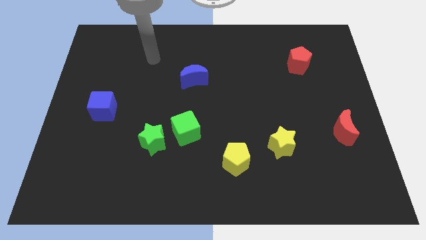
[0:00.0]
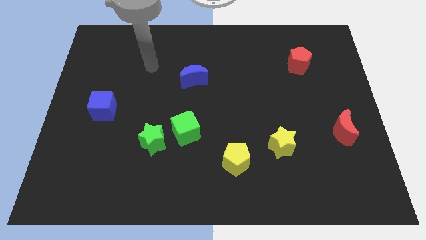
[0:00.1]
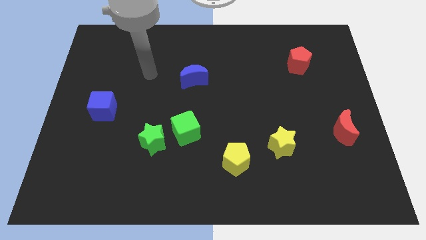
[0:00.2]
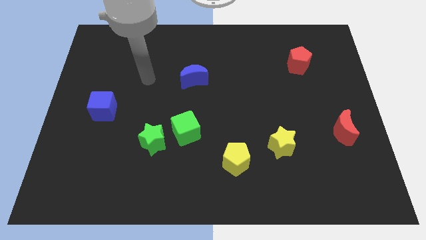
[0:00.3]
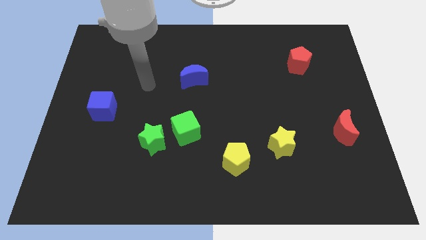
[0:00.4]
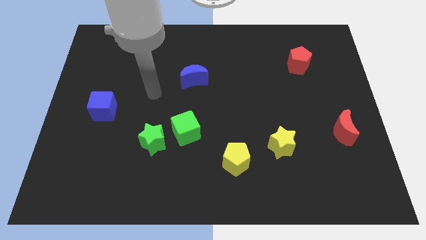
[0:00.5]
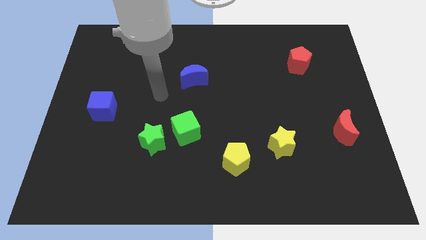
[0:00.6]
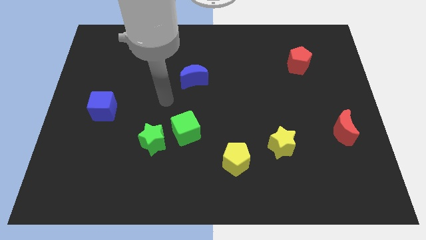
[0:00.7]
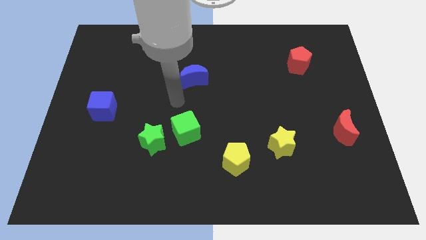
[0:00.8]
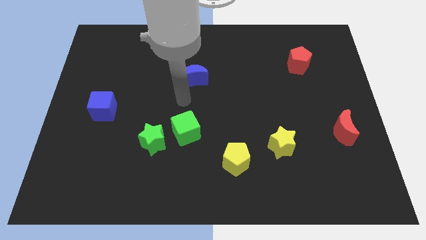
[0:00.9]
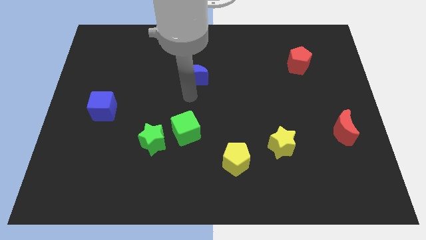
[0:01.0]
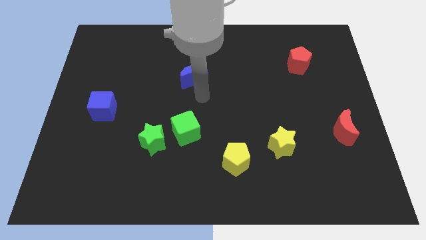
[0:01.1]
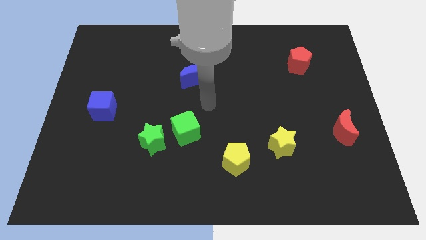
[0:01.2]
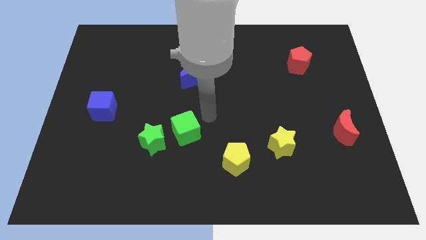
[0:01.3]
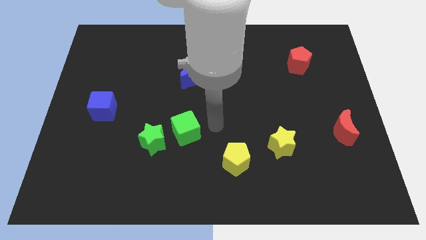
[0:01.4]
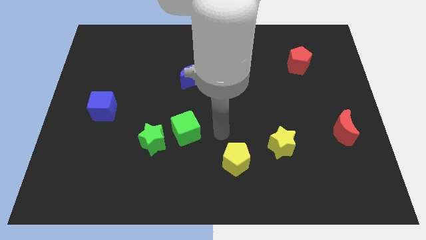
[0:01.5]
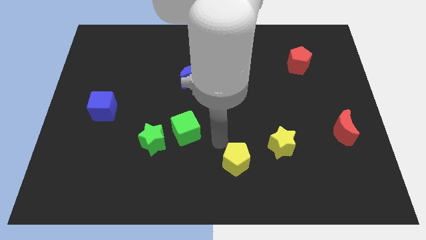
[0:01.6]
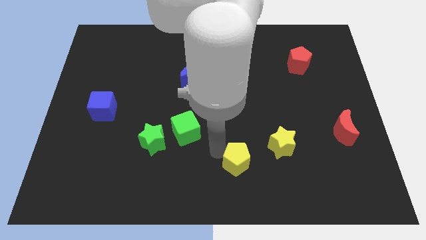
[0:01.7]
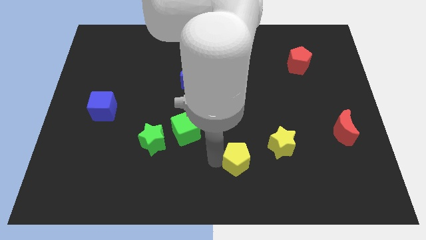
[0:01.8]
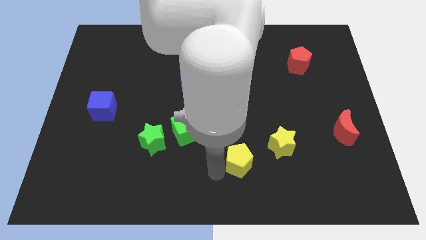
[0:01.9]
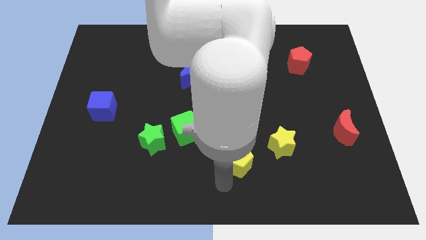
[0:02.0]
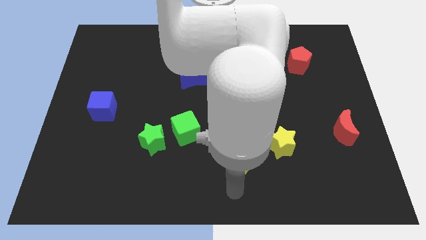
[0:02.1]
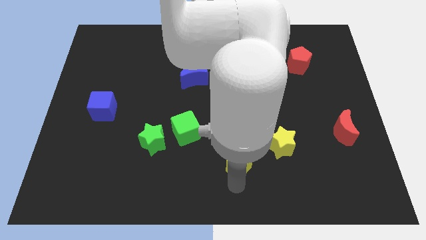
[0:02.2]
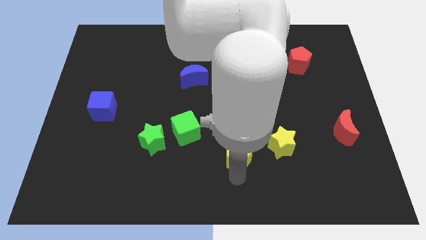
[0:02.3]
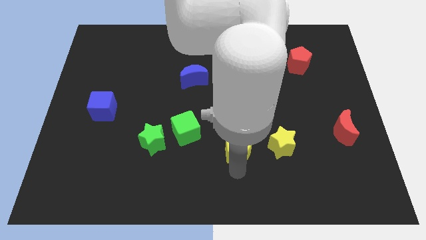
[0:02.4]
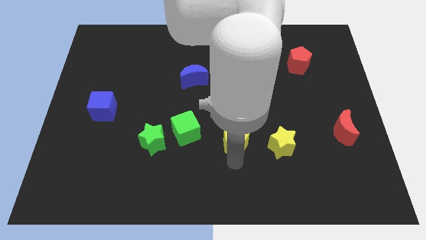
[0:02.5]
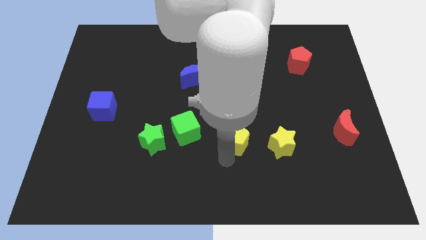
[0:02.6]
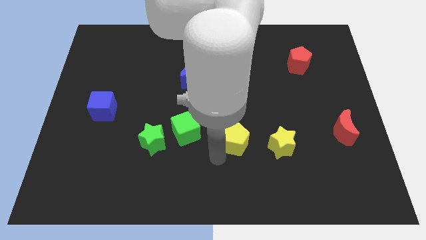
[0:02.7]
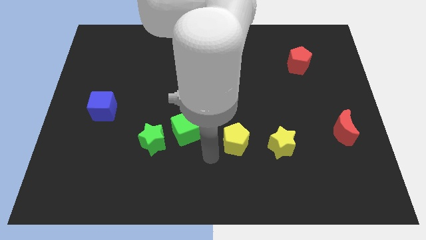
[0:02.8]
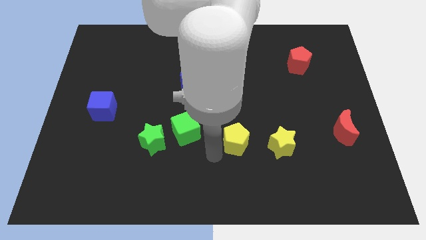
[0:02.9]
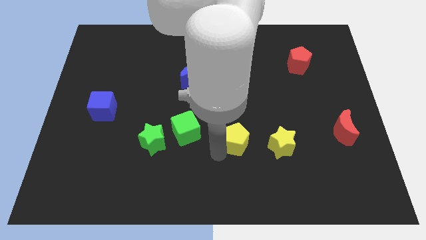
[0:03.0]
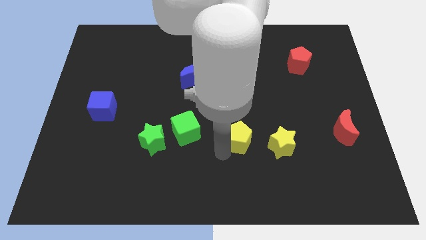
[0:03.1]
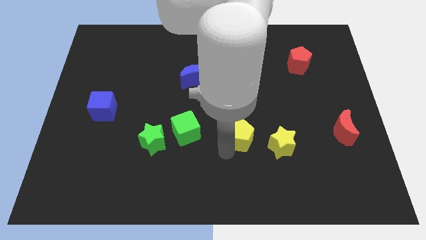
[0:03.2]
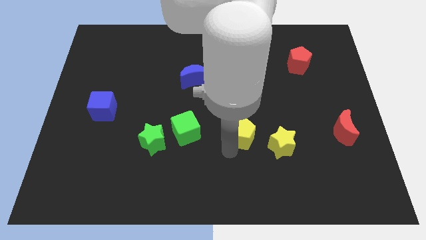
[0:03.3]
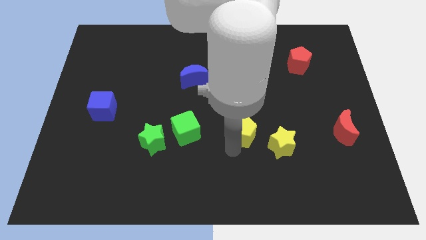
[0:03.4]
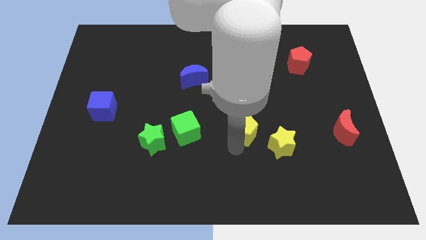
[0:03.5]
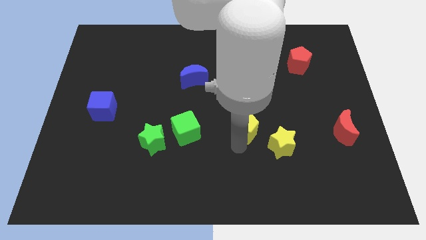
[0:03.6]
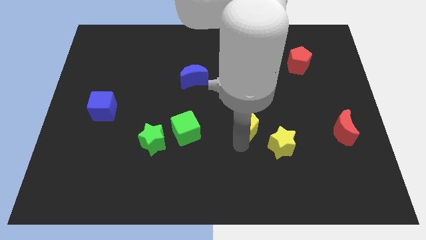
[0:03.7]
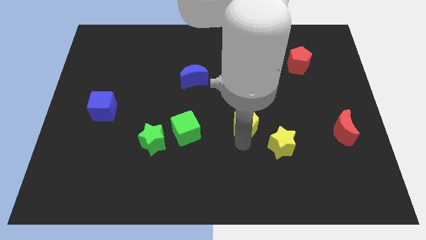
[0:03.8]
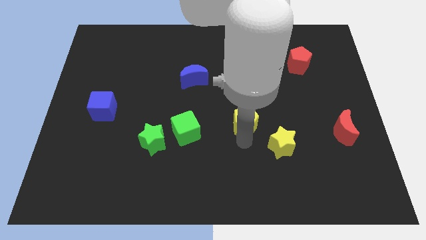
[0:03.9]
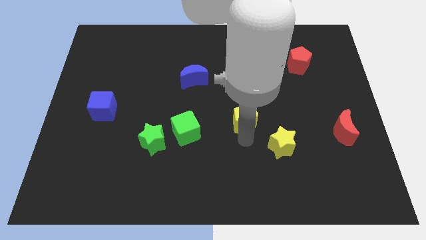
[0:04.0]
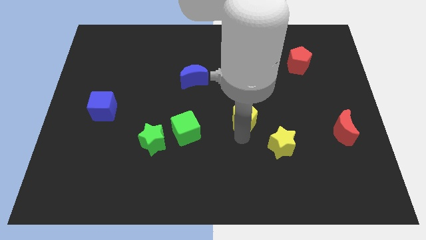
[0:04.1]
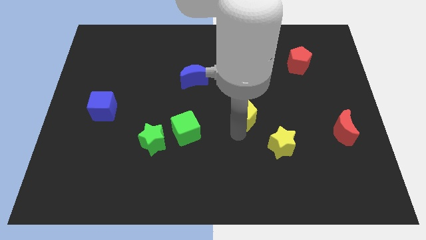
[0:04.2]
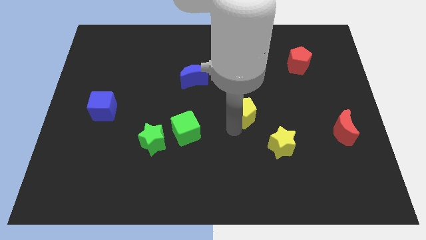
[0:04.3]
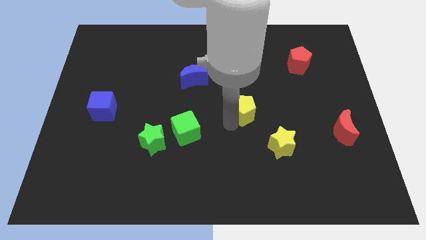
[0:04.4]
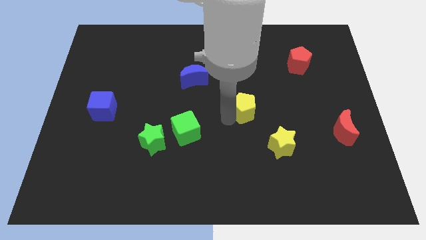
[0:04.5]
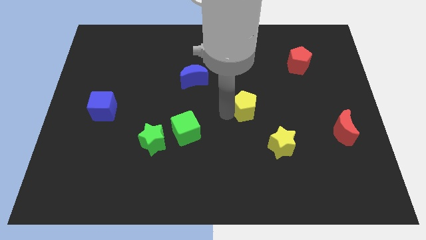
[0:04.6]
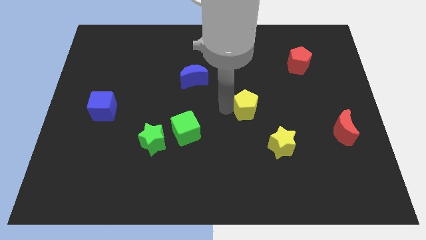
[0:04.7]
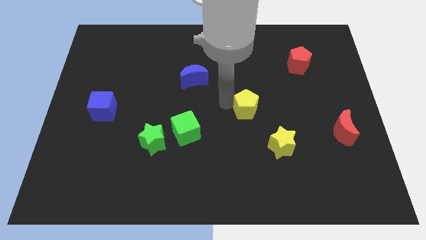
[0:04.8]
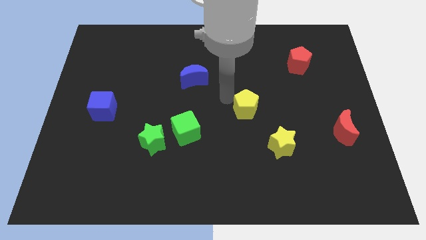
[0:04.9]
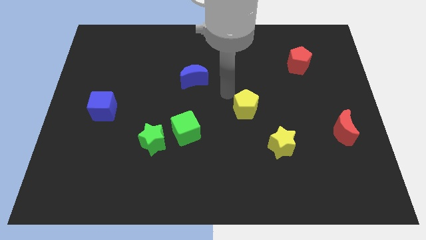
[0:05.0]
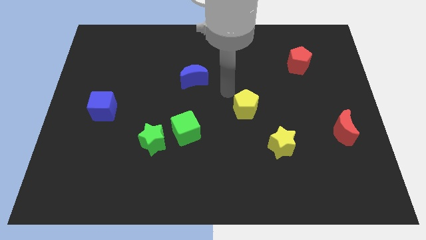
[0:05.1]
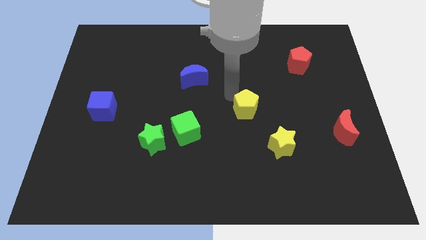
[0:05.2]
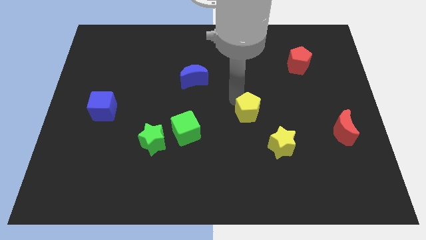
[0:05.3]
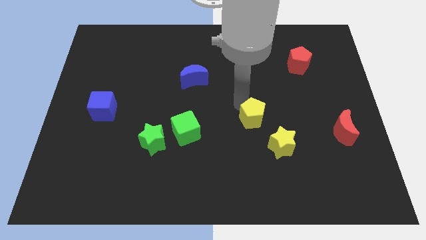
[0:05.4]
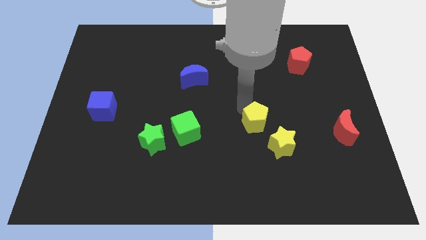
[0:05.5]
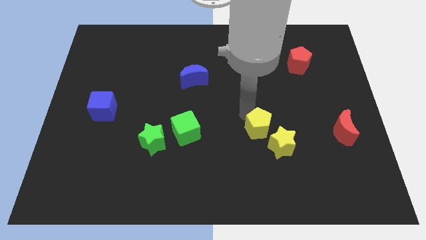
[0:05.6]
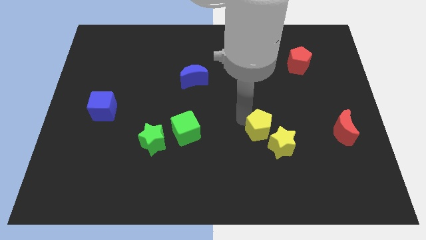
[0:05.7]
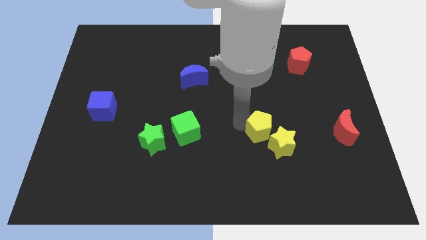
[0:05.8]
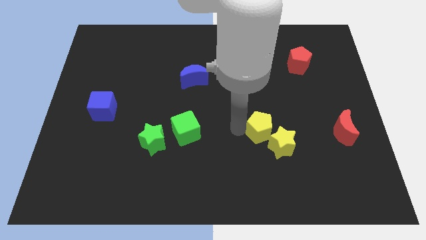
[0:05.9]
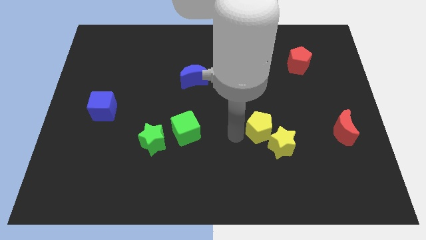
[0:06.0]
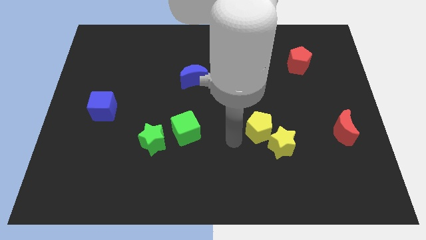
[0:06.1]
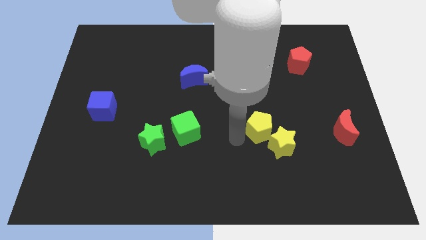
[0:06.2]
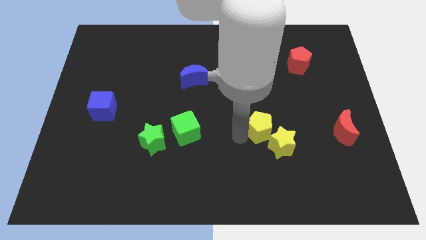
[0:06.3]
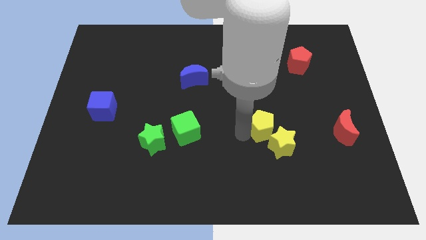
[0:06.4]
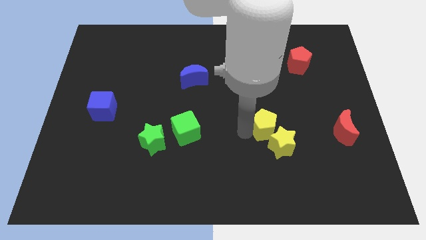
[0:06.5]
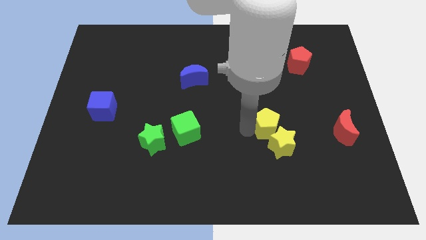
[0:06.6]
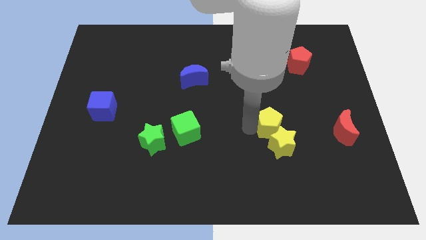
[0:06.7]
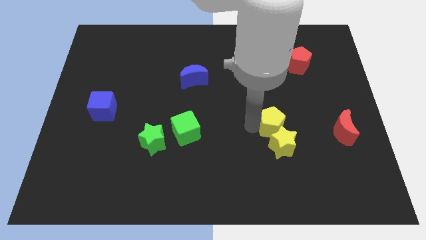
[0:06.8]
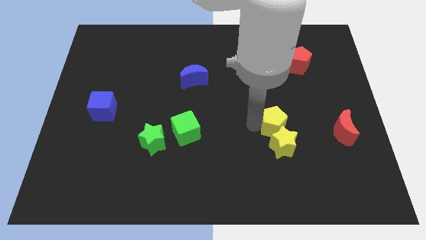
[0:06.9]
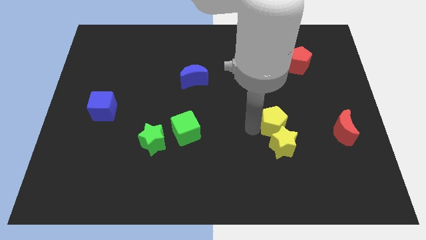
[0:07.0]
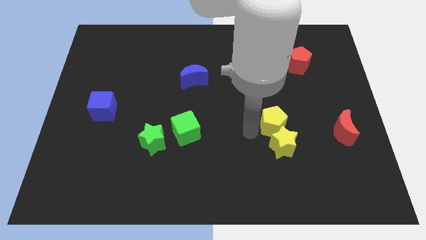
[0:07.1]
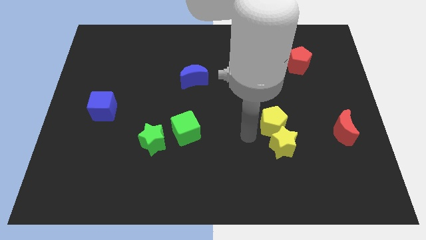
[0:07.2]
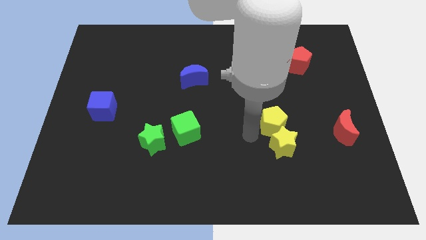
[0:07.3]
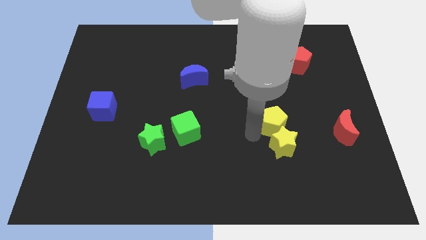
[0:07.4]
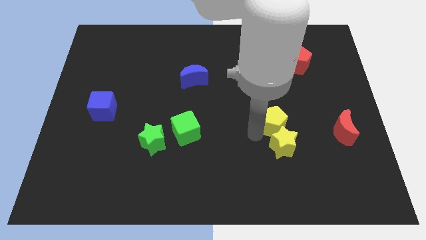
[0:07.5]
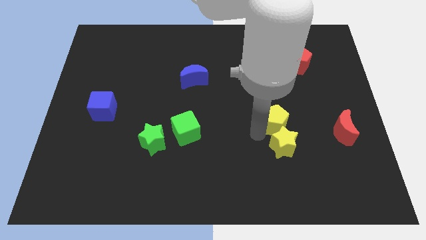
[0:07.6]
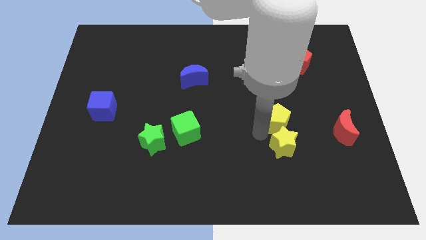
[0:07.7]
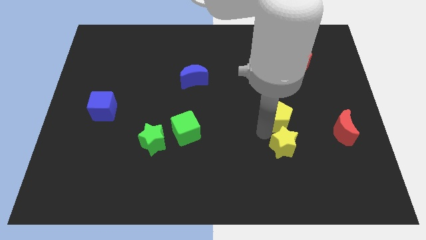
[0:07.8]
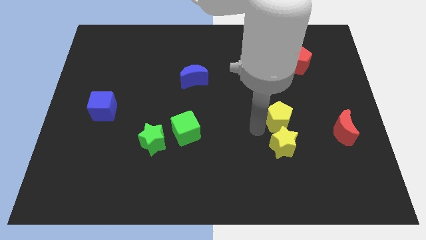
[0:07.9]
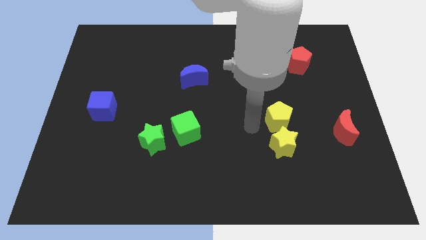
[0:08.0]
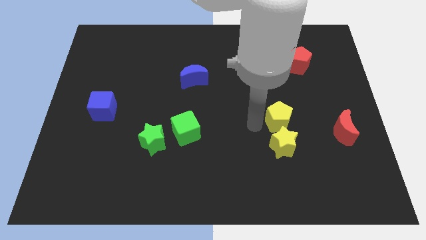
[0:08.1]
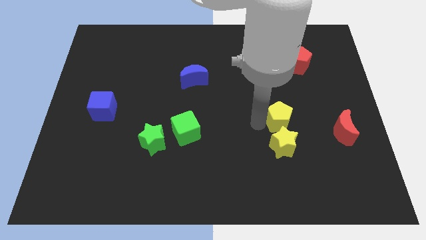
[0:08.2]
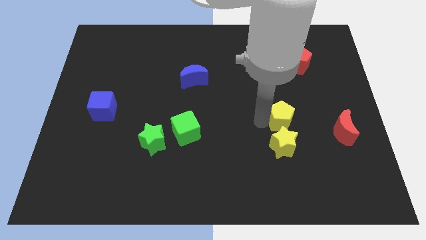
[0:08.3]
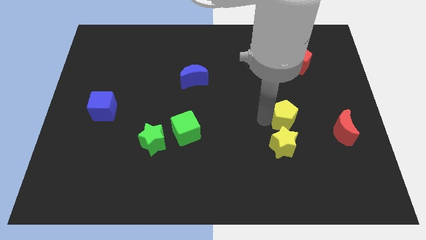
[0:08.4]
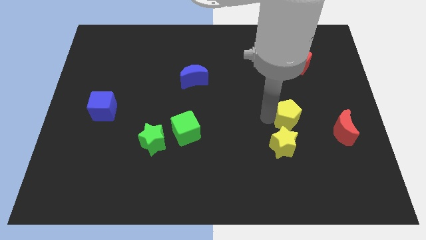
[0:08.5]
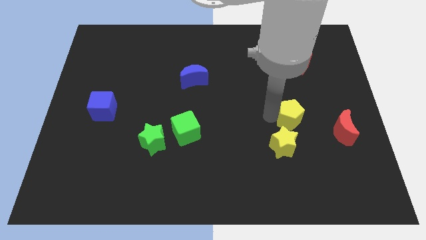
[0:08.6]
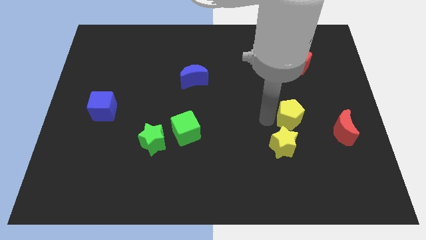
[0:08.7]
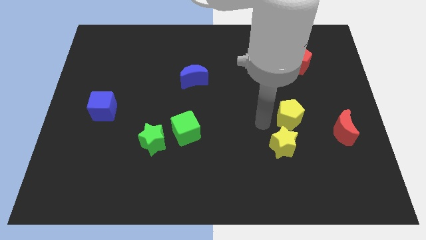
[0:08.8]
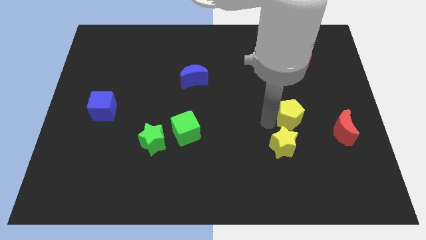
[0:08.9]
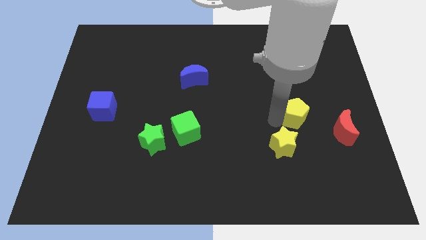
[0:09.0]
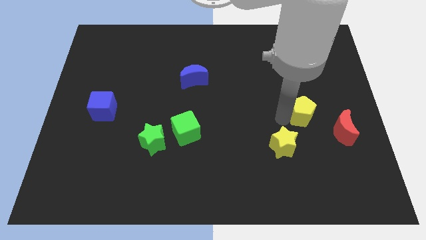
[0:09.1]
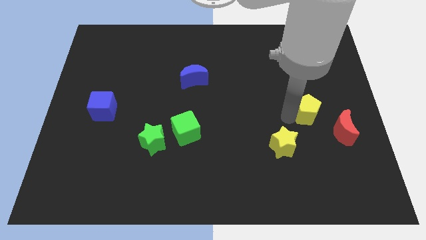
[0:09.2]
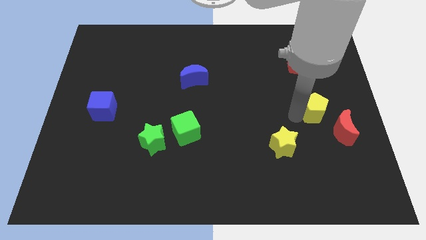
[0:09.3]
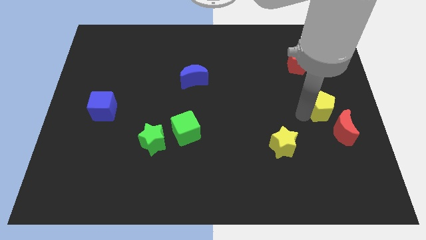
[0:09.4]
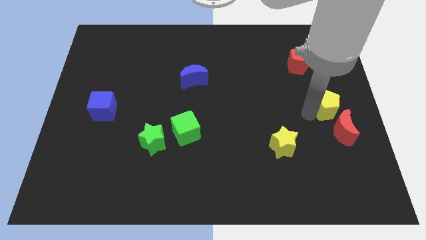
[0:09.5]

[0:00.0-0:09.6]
move the yellow pentagon to the center right
